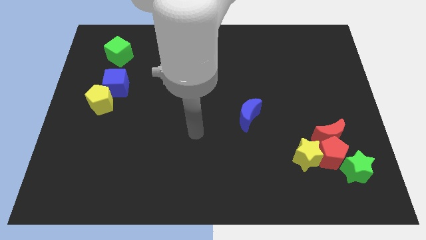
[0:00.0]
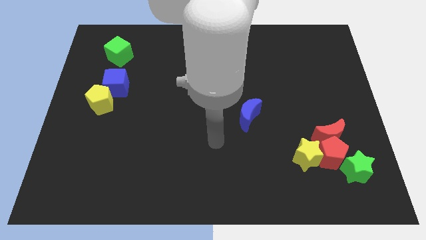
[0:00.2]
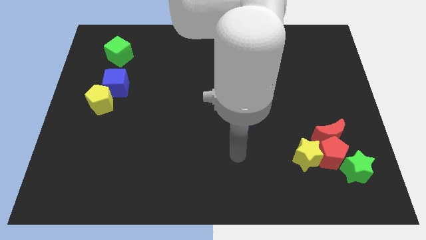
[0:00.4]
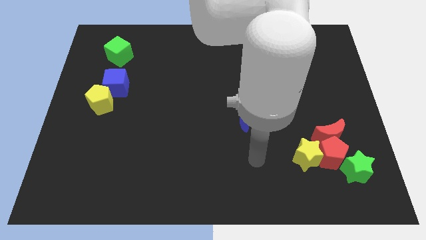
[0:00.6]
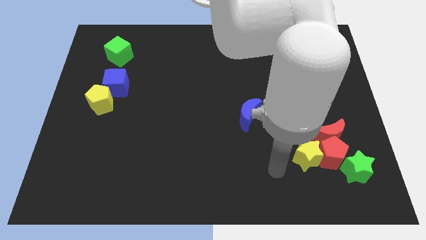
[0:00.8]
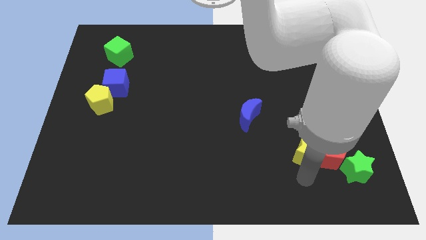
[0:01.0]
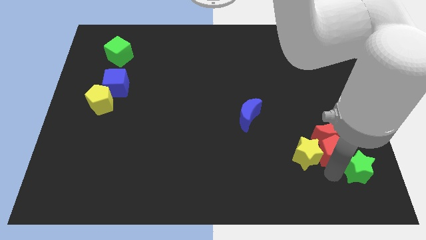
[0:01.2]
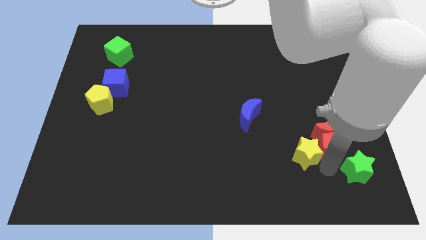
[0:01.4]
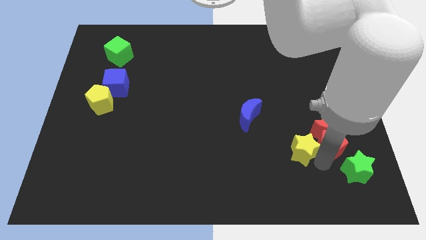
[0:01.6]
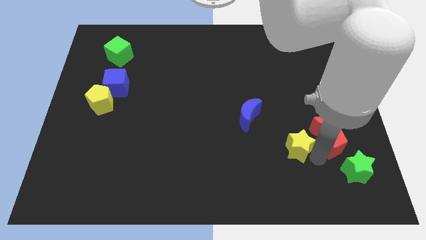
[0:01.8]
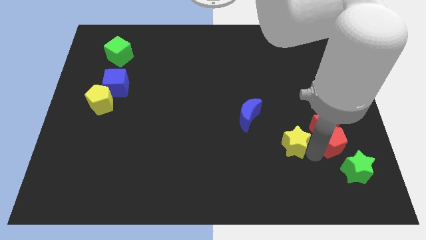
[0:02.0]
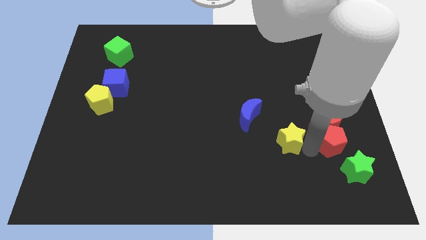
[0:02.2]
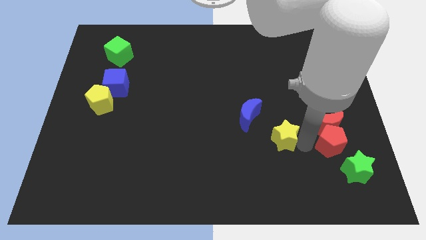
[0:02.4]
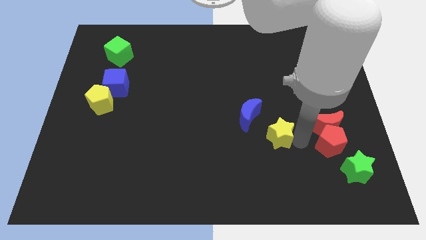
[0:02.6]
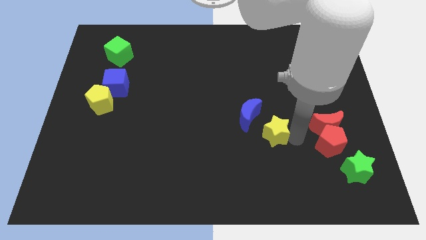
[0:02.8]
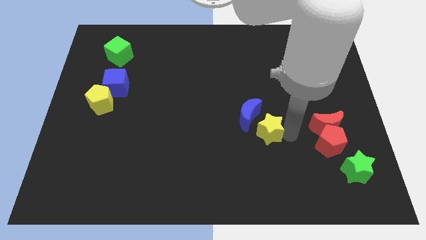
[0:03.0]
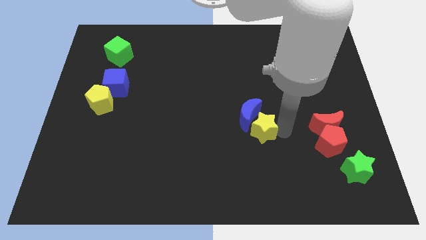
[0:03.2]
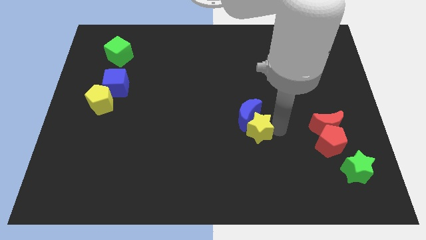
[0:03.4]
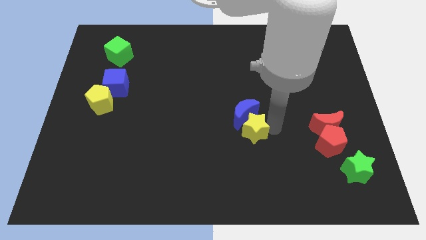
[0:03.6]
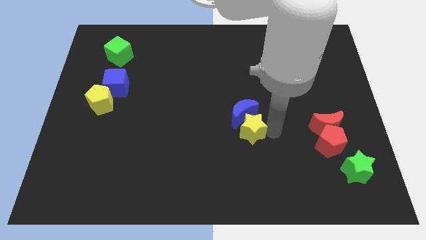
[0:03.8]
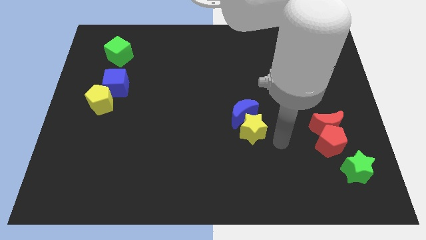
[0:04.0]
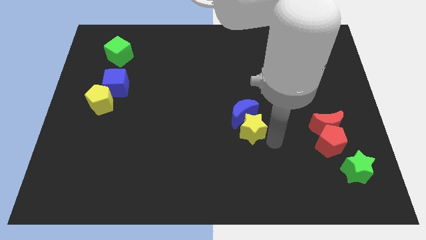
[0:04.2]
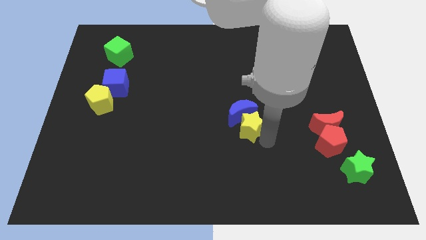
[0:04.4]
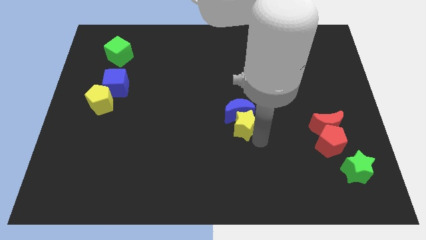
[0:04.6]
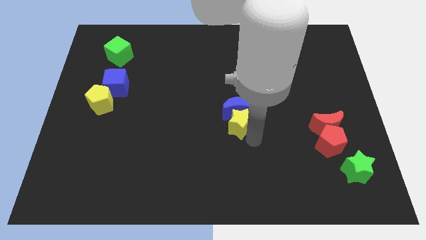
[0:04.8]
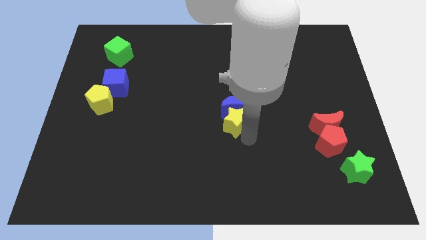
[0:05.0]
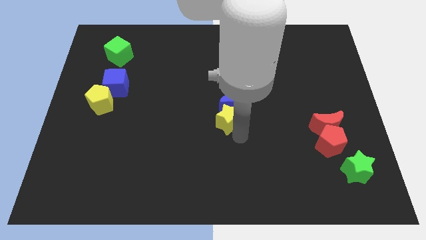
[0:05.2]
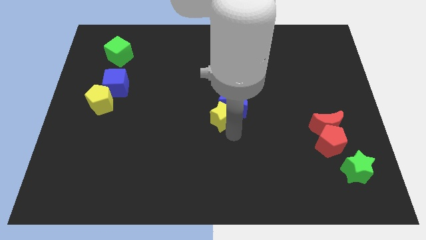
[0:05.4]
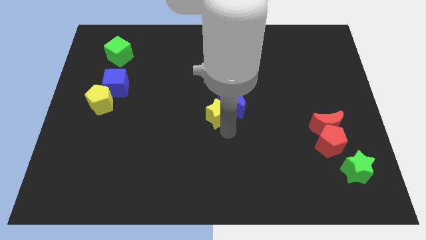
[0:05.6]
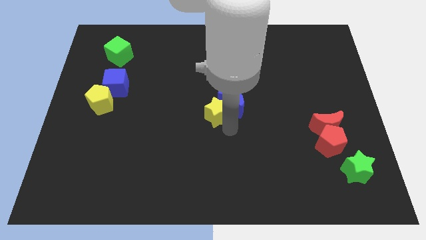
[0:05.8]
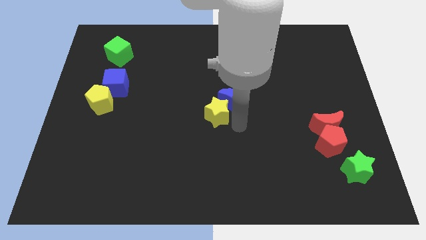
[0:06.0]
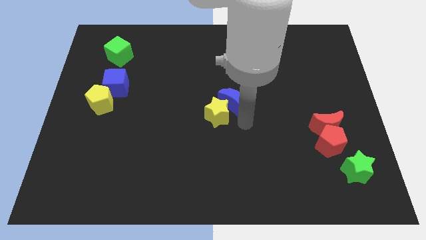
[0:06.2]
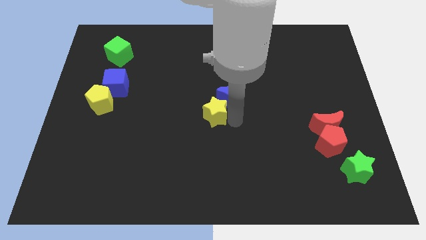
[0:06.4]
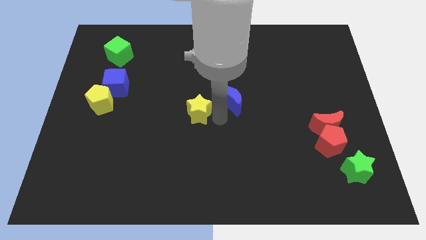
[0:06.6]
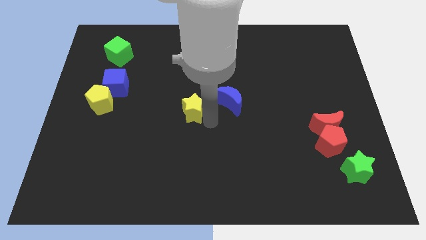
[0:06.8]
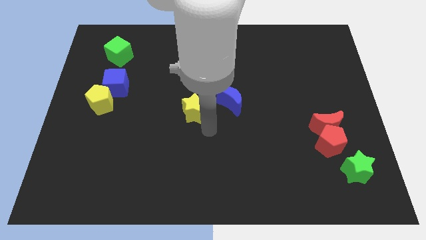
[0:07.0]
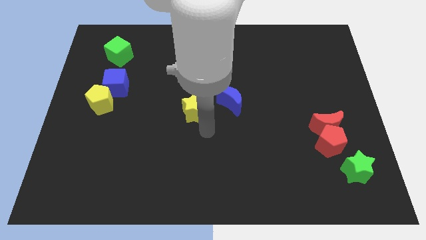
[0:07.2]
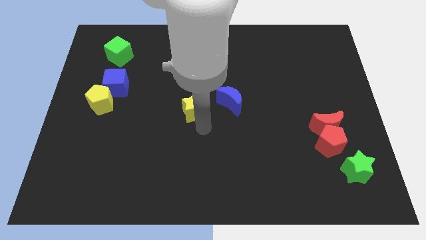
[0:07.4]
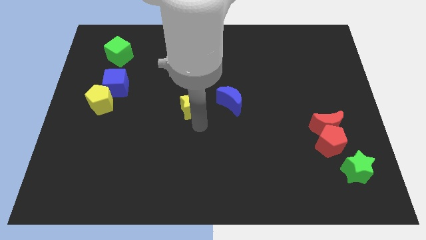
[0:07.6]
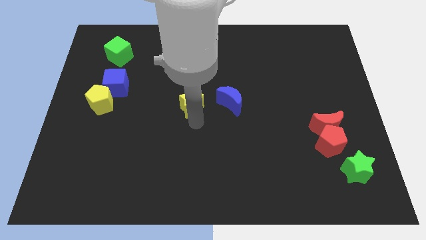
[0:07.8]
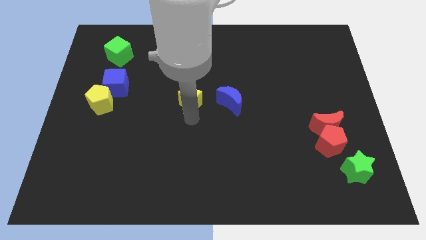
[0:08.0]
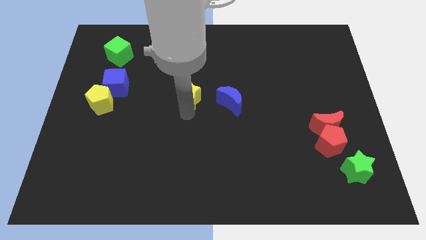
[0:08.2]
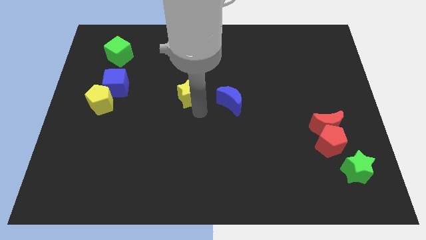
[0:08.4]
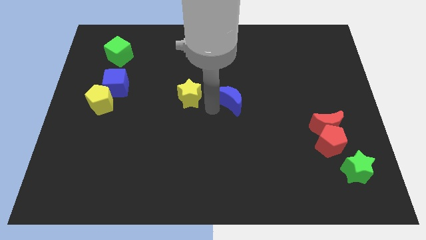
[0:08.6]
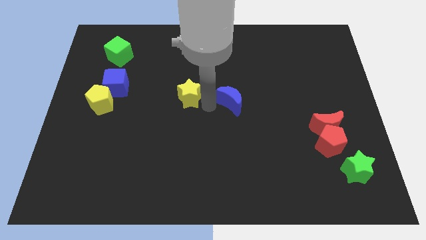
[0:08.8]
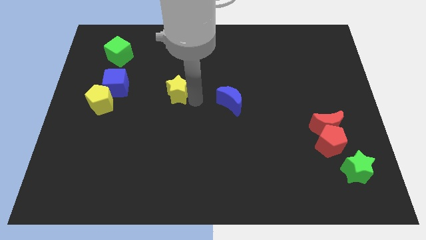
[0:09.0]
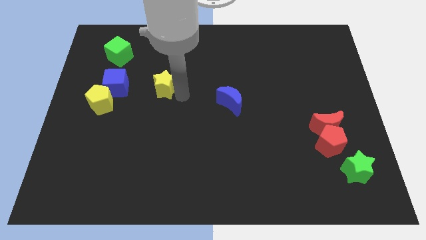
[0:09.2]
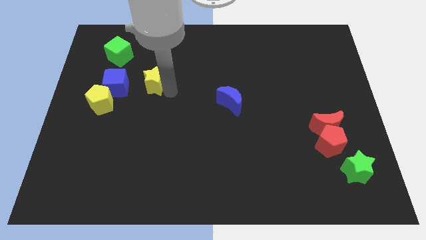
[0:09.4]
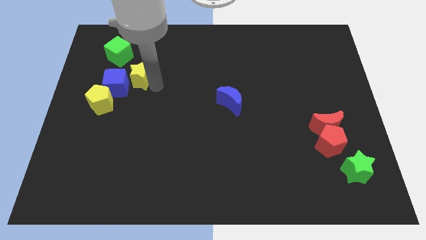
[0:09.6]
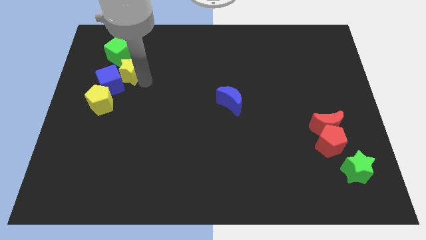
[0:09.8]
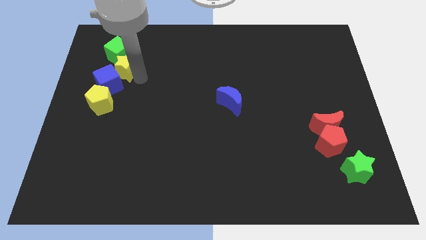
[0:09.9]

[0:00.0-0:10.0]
push the yellow star to the top side of the yellow pentagon

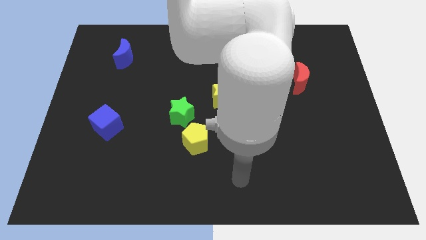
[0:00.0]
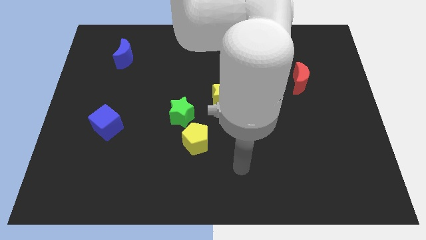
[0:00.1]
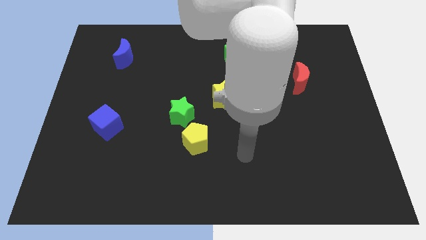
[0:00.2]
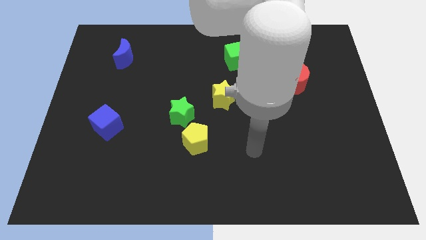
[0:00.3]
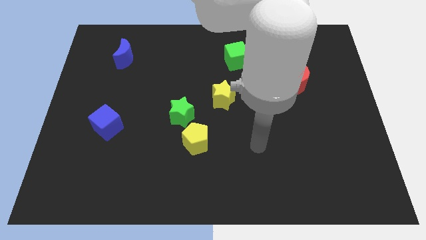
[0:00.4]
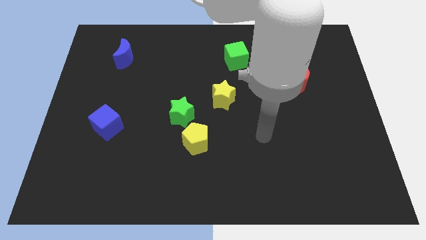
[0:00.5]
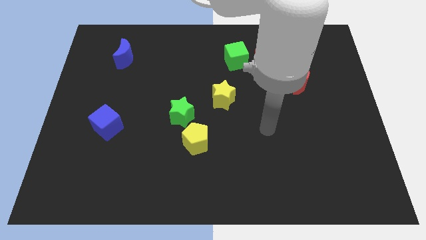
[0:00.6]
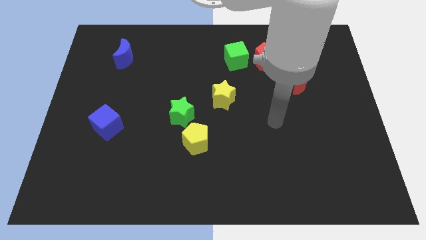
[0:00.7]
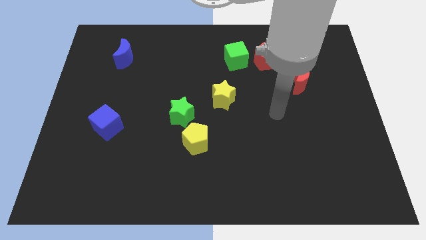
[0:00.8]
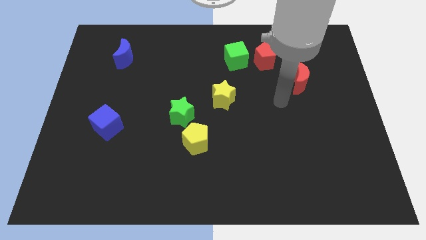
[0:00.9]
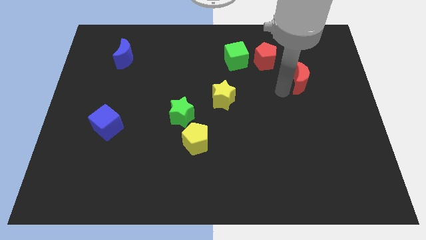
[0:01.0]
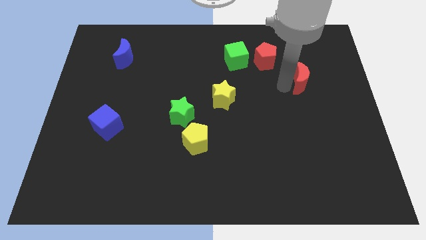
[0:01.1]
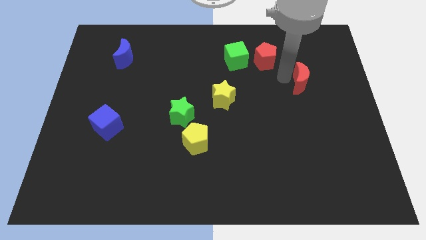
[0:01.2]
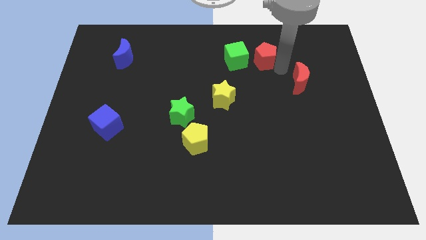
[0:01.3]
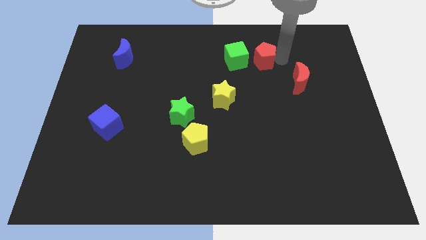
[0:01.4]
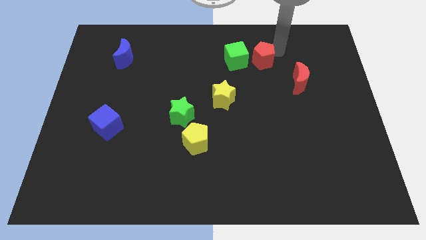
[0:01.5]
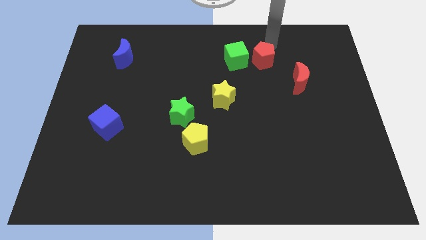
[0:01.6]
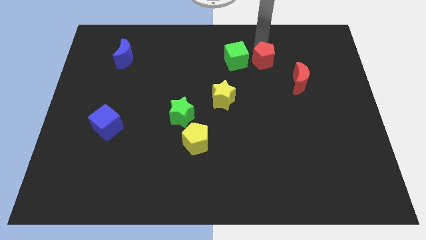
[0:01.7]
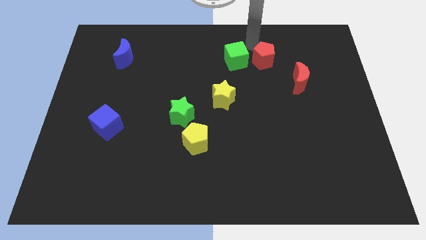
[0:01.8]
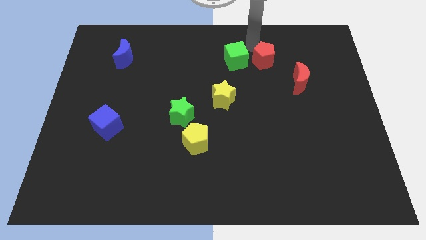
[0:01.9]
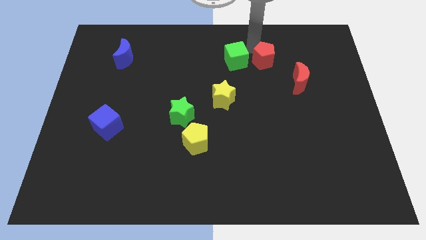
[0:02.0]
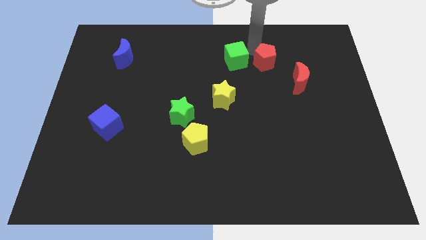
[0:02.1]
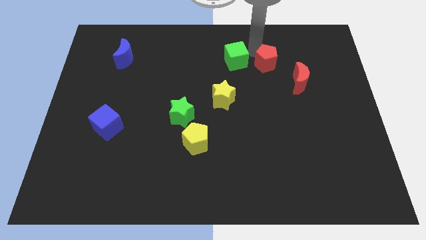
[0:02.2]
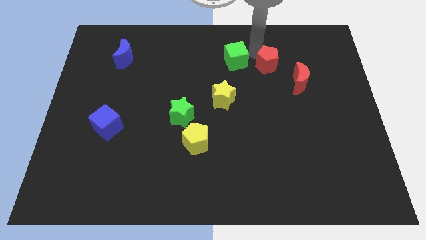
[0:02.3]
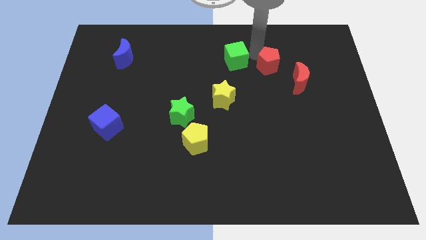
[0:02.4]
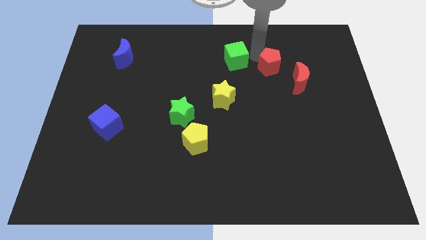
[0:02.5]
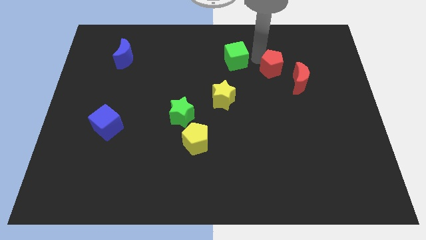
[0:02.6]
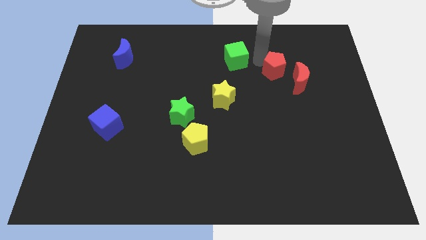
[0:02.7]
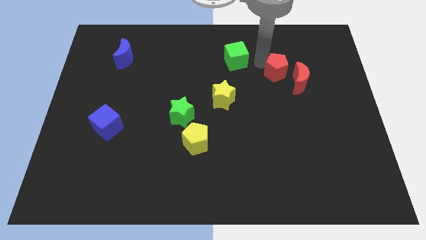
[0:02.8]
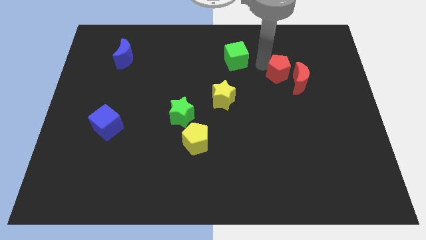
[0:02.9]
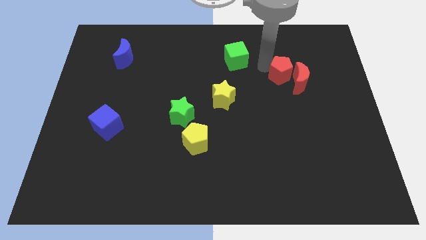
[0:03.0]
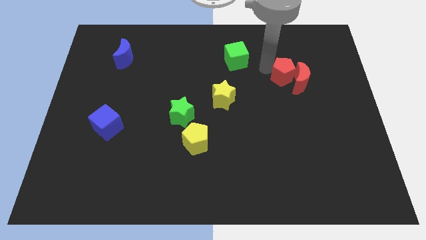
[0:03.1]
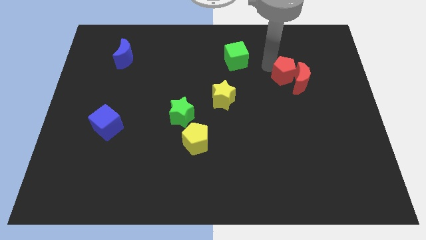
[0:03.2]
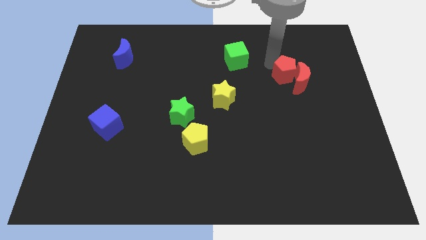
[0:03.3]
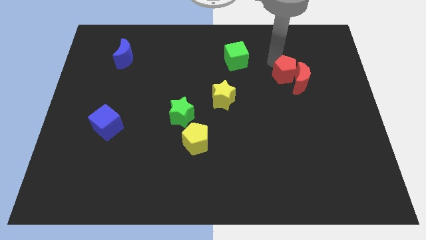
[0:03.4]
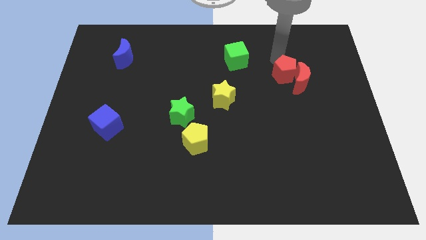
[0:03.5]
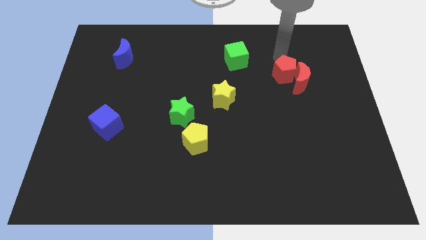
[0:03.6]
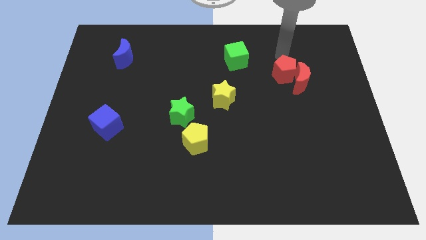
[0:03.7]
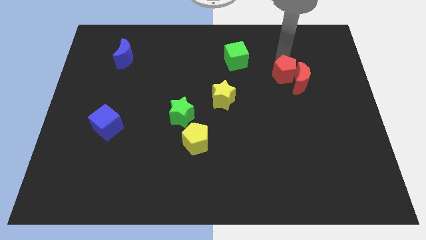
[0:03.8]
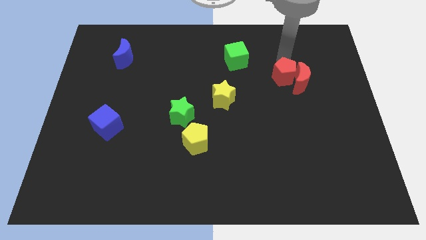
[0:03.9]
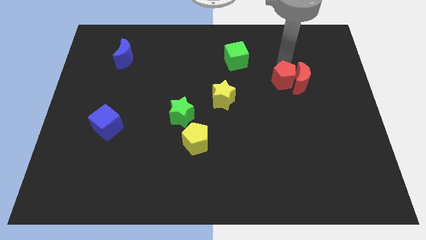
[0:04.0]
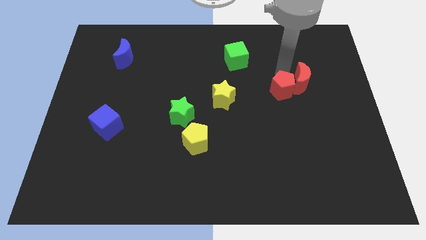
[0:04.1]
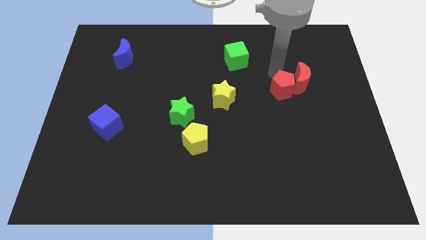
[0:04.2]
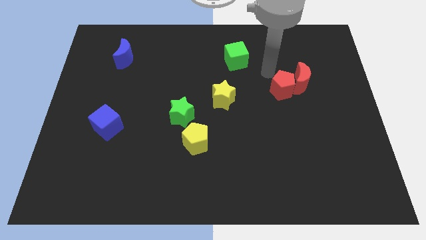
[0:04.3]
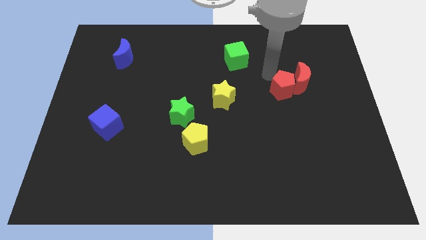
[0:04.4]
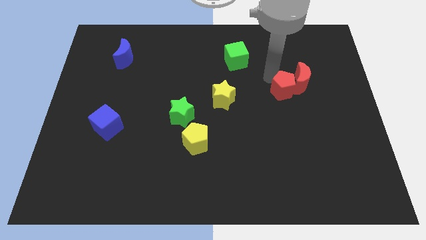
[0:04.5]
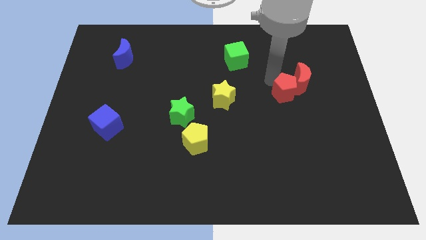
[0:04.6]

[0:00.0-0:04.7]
put the red pentagon below the red moon
